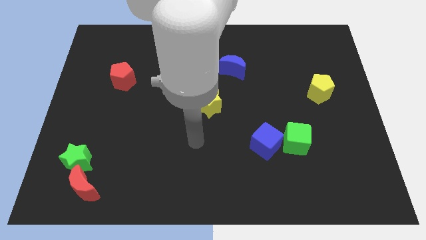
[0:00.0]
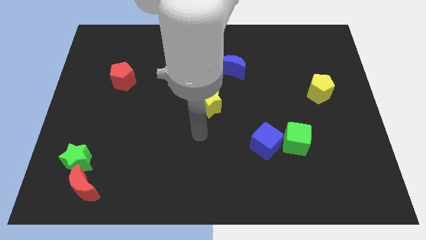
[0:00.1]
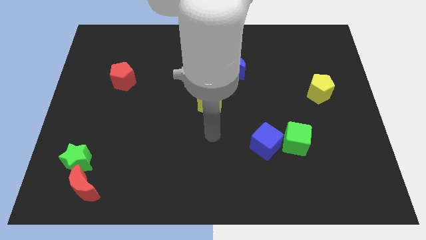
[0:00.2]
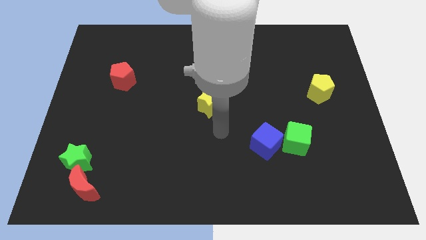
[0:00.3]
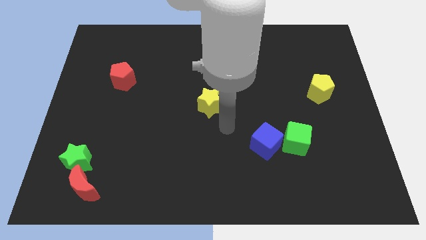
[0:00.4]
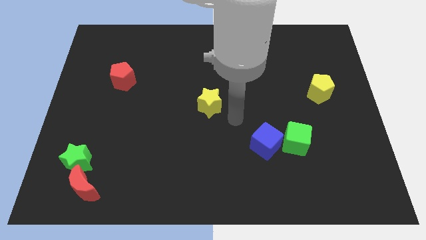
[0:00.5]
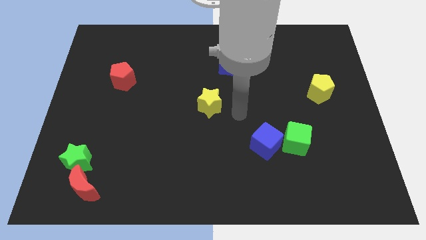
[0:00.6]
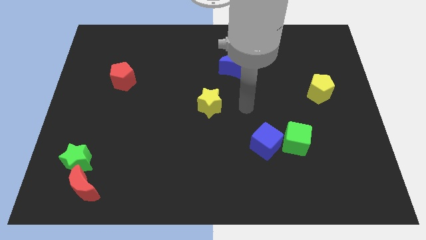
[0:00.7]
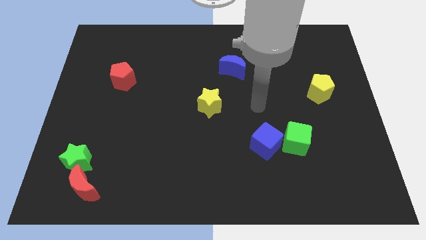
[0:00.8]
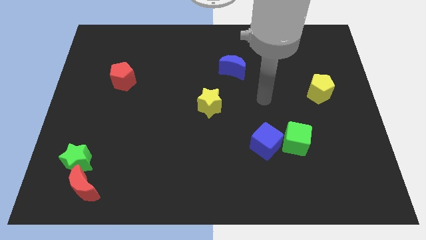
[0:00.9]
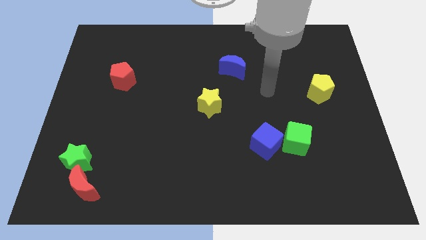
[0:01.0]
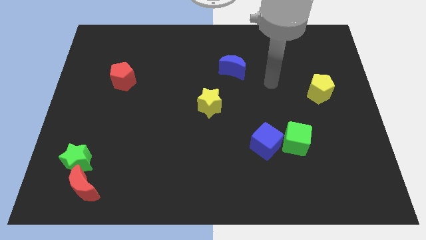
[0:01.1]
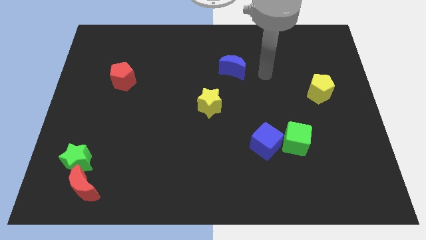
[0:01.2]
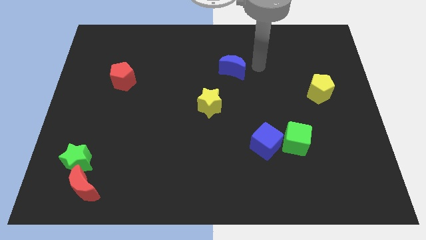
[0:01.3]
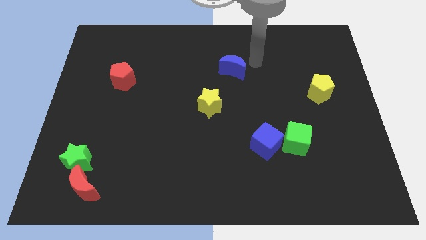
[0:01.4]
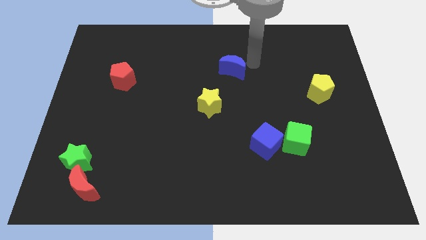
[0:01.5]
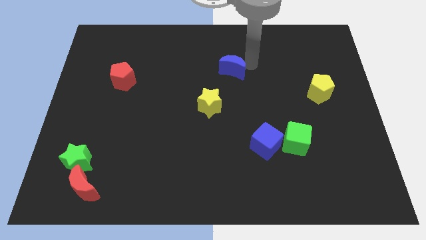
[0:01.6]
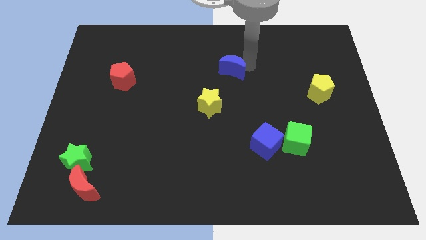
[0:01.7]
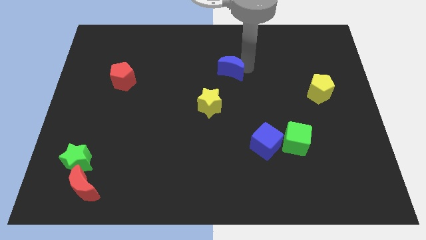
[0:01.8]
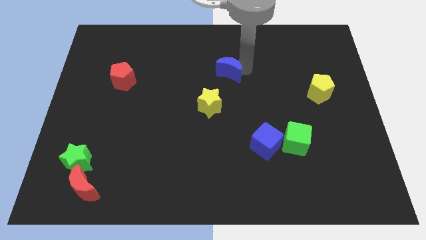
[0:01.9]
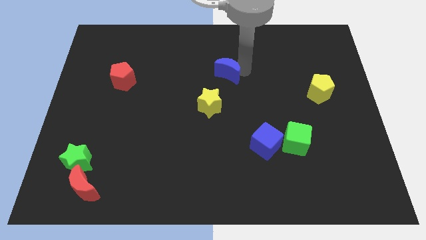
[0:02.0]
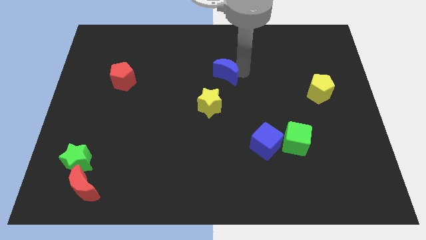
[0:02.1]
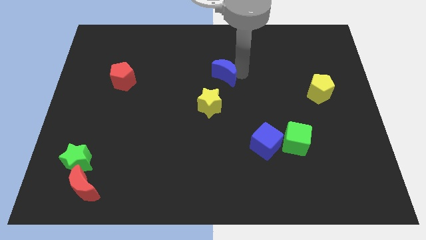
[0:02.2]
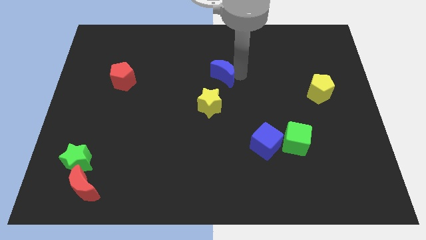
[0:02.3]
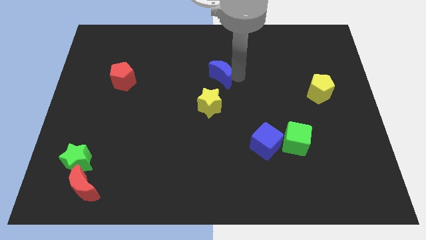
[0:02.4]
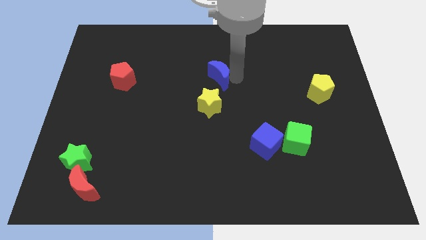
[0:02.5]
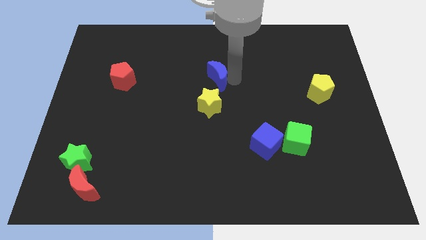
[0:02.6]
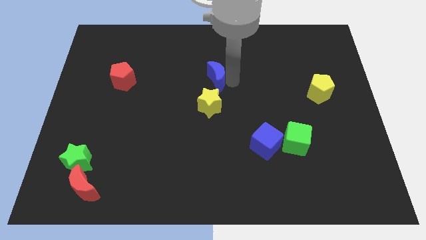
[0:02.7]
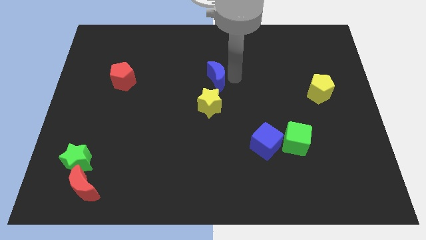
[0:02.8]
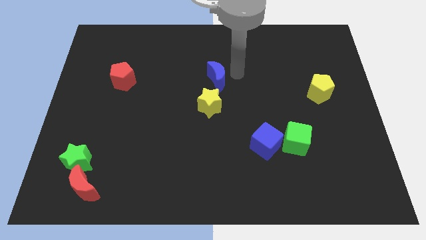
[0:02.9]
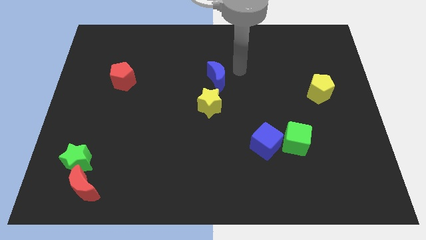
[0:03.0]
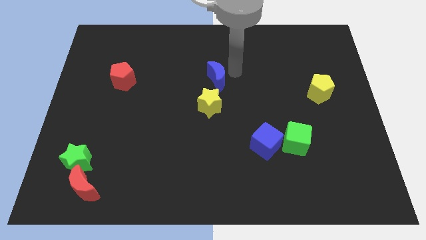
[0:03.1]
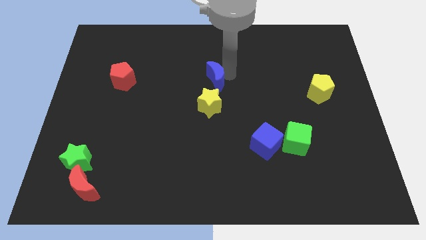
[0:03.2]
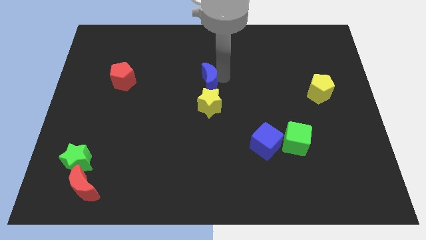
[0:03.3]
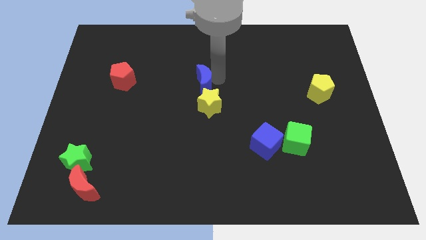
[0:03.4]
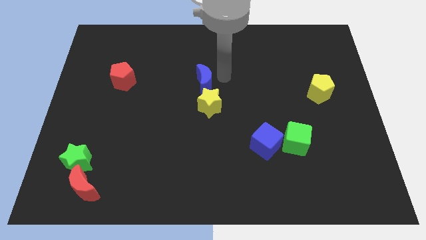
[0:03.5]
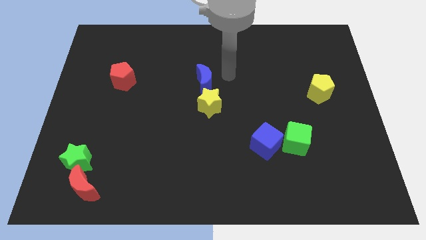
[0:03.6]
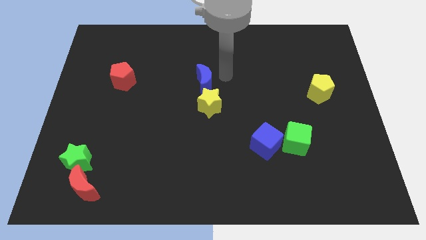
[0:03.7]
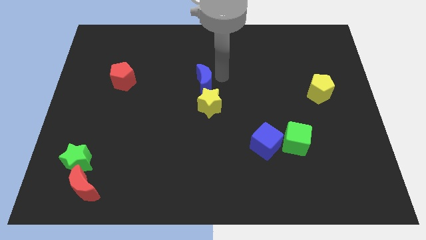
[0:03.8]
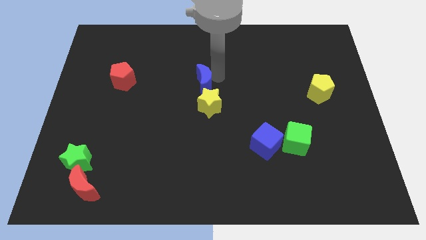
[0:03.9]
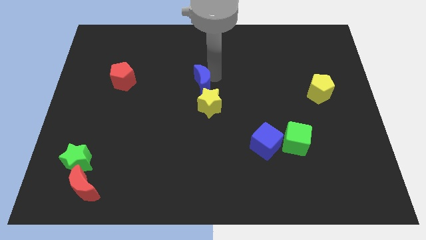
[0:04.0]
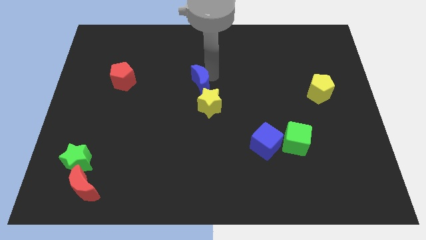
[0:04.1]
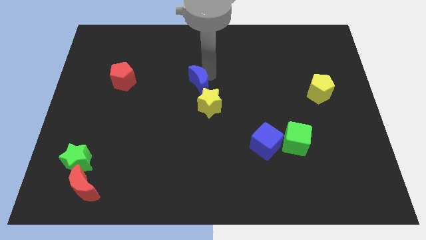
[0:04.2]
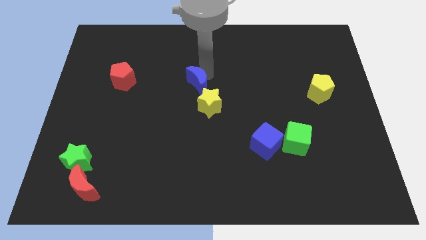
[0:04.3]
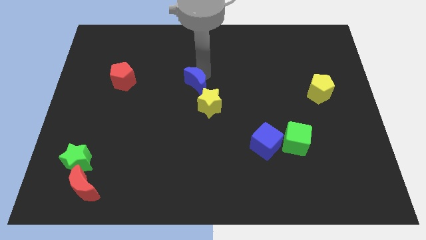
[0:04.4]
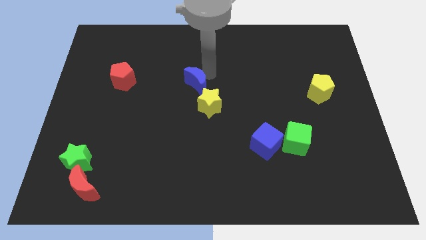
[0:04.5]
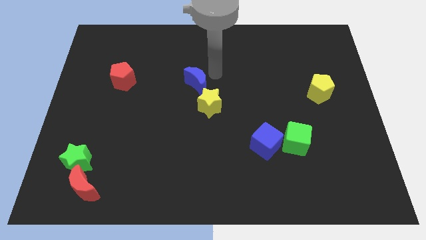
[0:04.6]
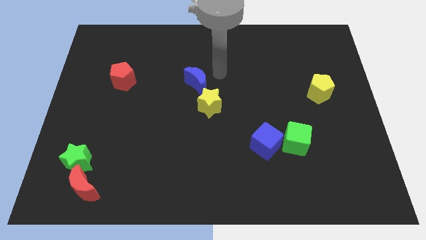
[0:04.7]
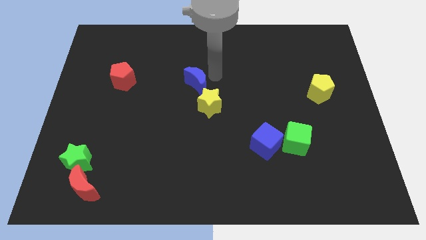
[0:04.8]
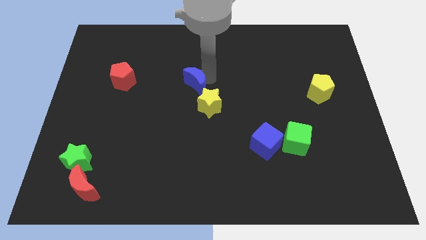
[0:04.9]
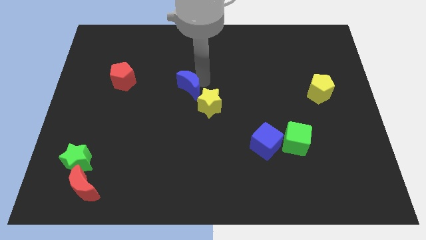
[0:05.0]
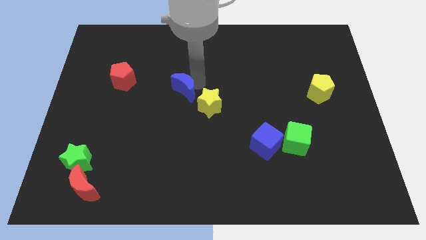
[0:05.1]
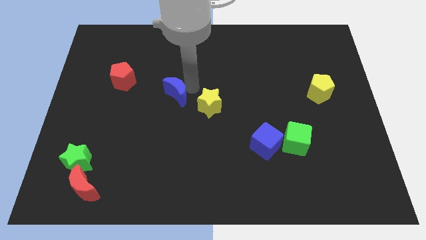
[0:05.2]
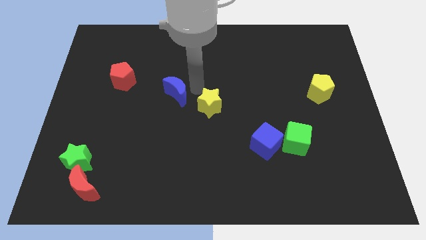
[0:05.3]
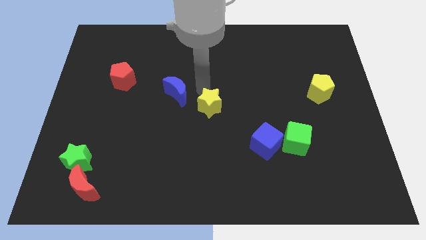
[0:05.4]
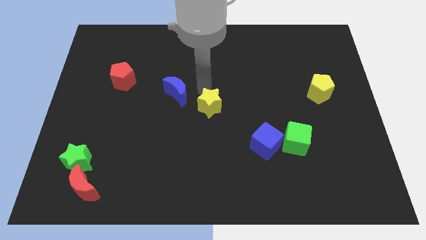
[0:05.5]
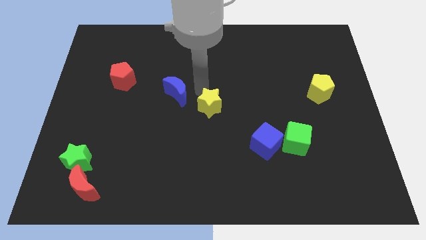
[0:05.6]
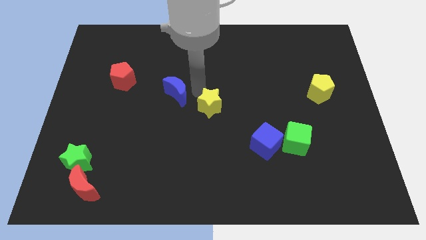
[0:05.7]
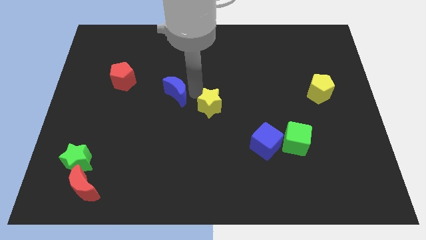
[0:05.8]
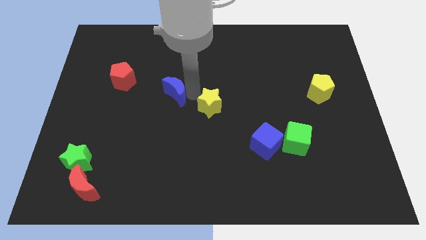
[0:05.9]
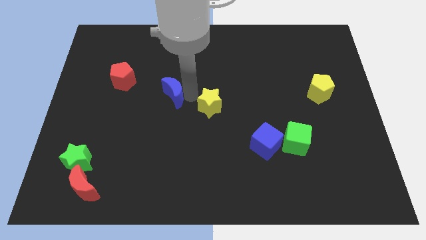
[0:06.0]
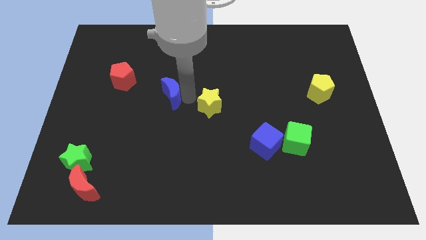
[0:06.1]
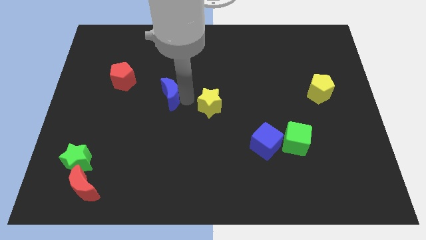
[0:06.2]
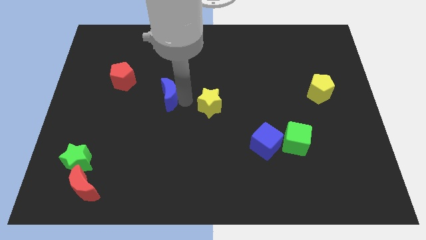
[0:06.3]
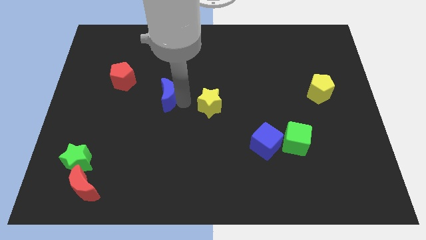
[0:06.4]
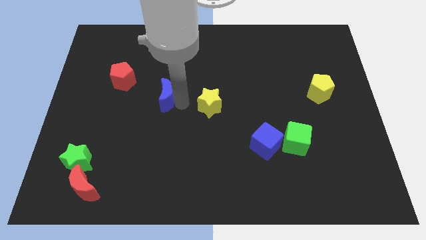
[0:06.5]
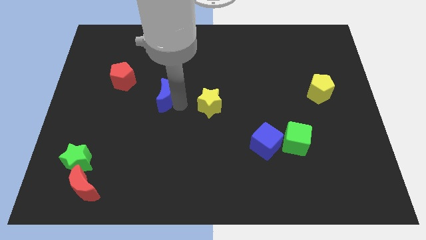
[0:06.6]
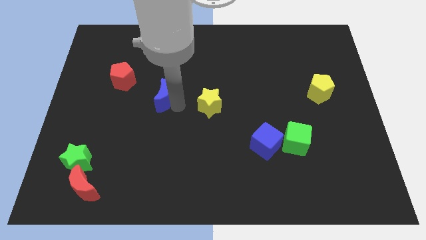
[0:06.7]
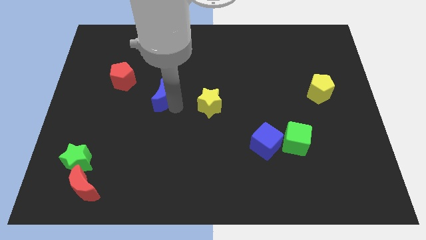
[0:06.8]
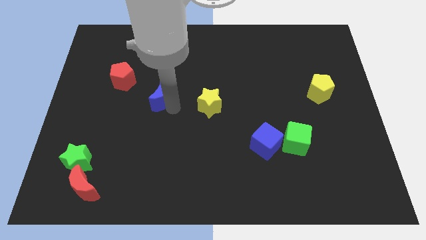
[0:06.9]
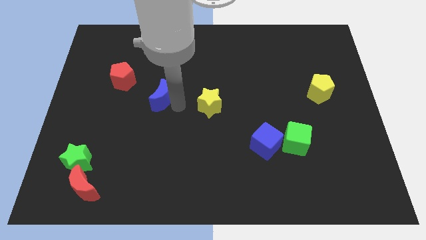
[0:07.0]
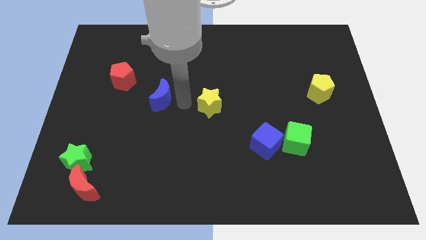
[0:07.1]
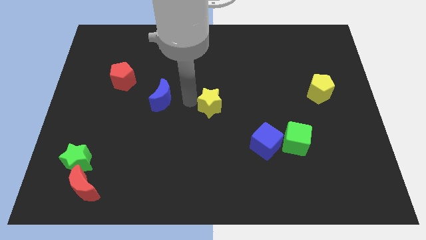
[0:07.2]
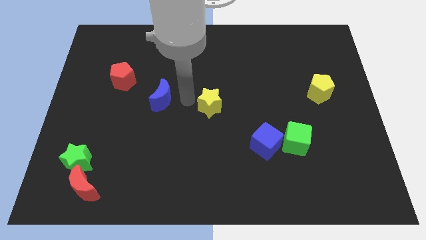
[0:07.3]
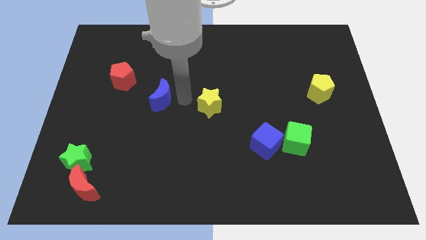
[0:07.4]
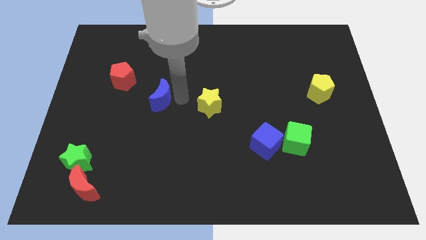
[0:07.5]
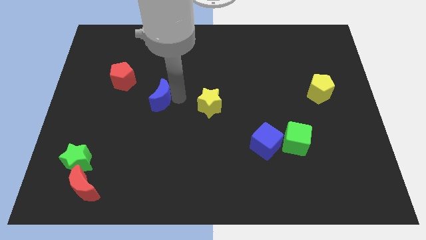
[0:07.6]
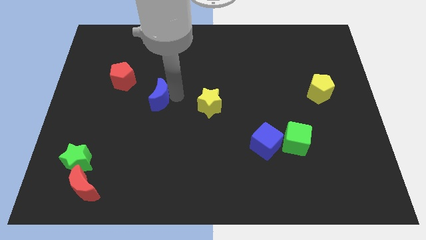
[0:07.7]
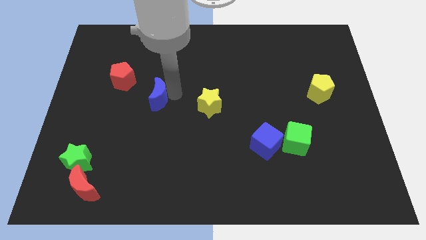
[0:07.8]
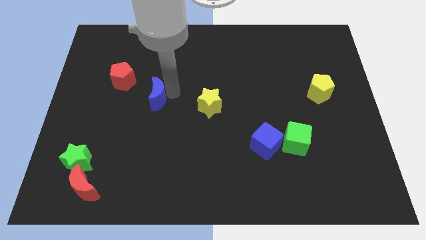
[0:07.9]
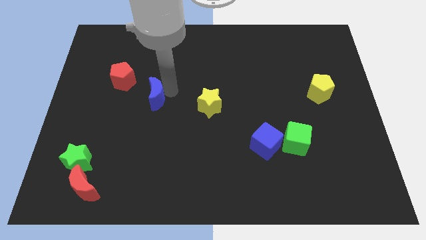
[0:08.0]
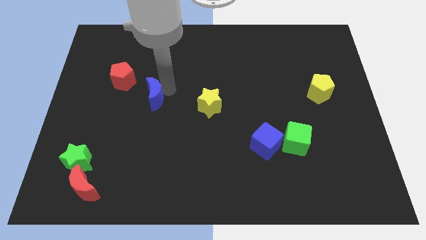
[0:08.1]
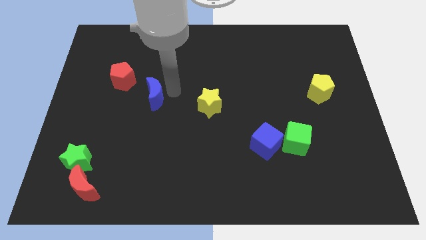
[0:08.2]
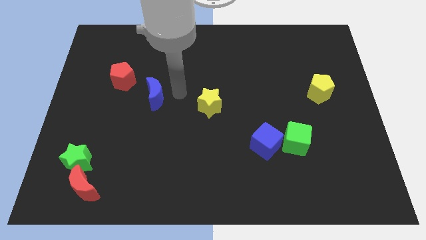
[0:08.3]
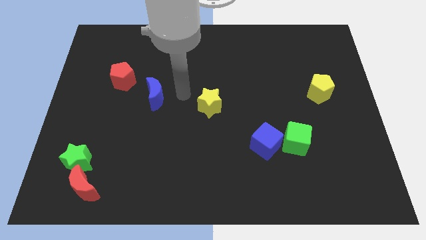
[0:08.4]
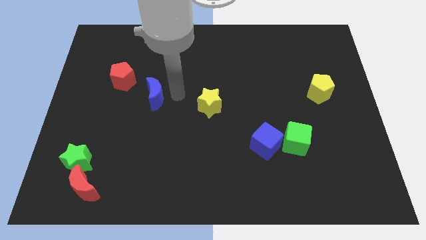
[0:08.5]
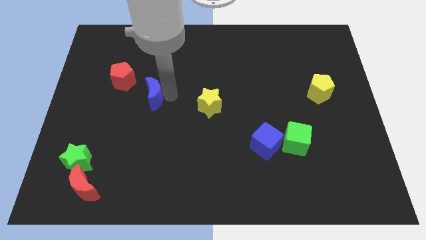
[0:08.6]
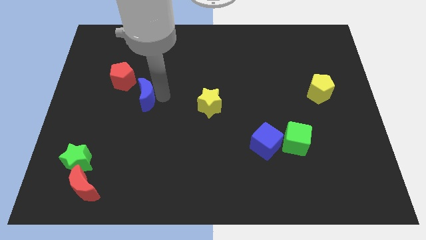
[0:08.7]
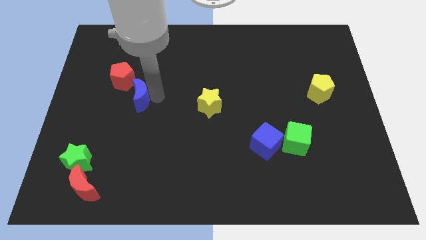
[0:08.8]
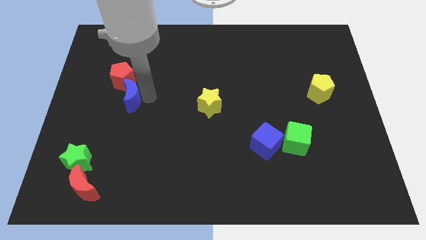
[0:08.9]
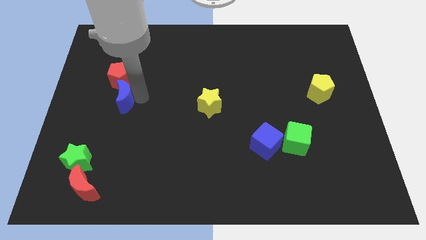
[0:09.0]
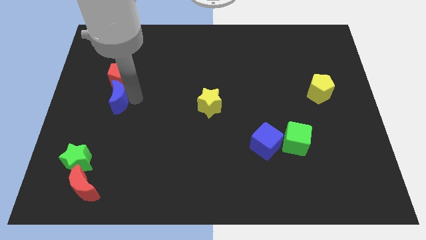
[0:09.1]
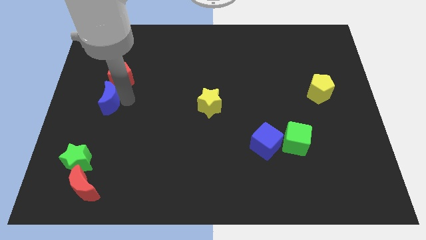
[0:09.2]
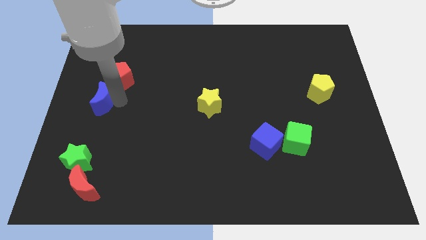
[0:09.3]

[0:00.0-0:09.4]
slide the blue moon to the center left
